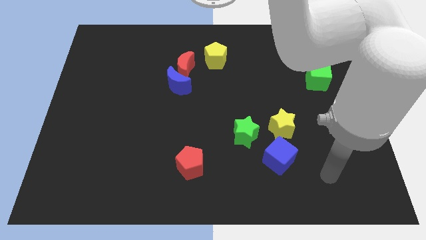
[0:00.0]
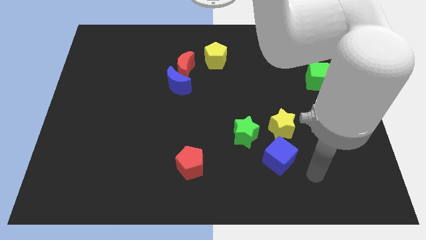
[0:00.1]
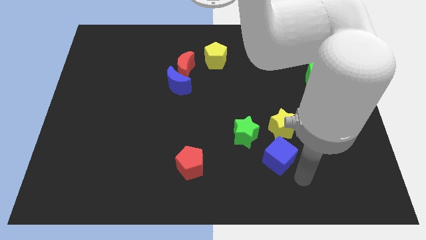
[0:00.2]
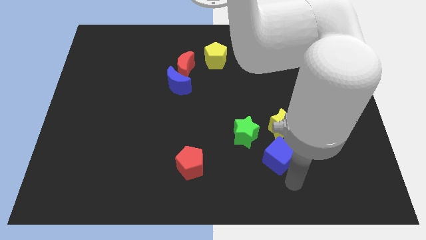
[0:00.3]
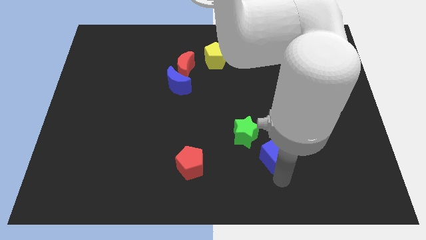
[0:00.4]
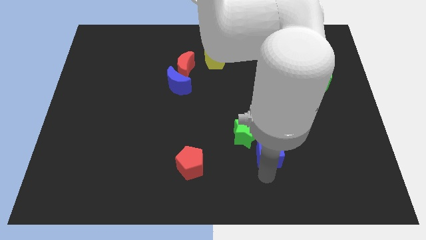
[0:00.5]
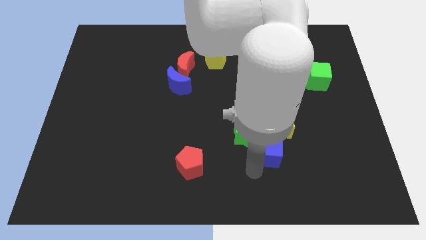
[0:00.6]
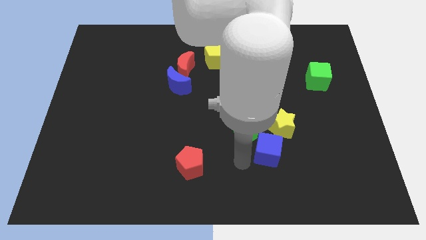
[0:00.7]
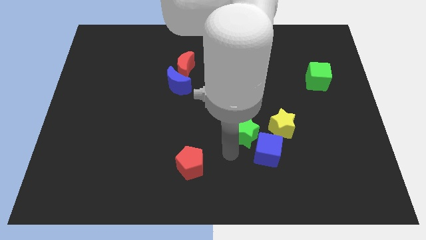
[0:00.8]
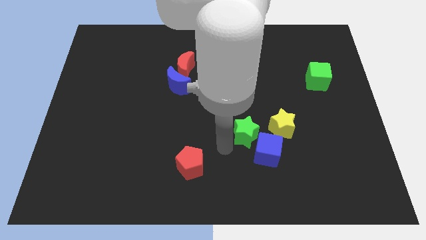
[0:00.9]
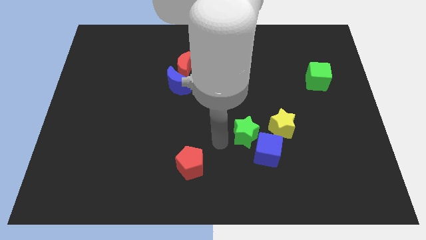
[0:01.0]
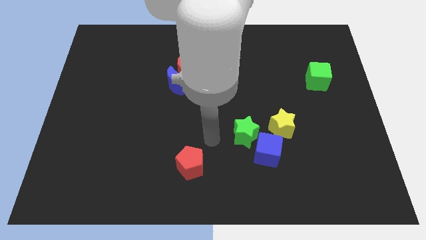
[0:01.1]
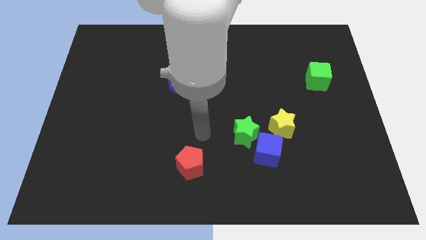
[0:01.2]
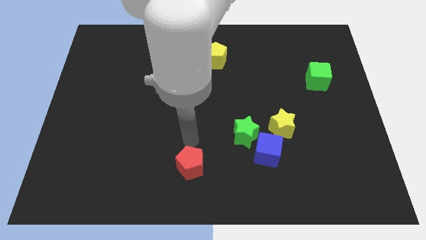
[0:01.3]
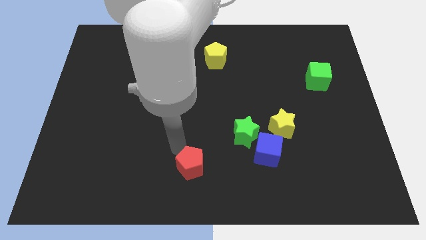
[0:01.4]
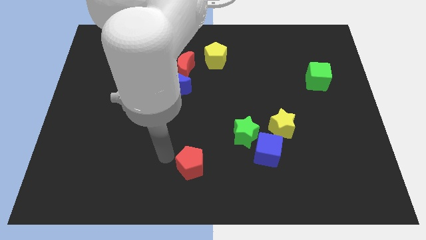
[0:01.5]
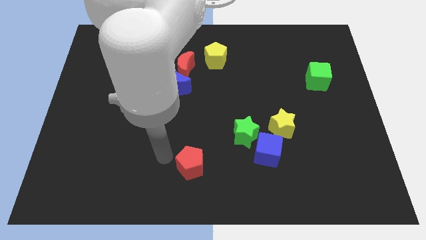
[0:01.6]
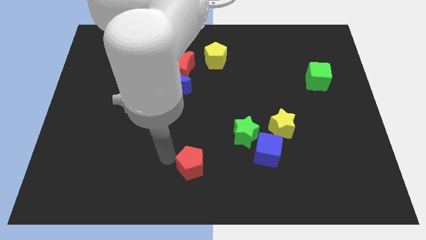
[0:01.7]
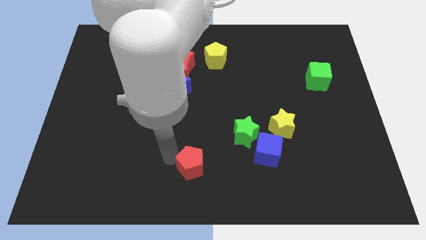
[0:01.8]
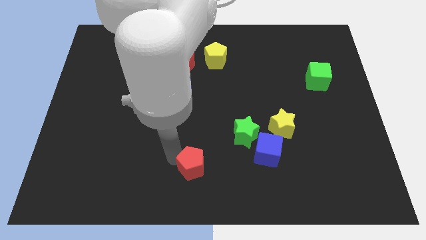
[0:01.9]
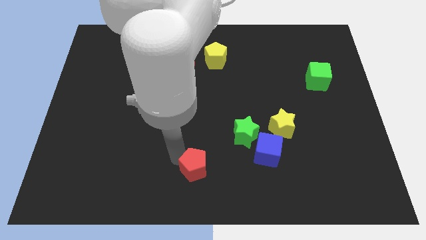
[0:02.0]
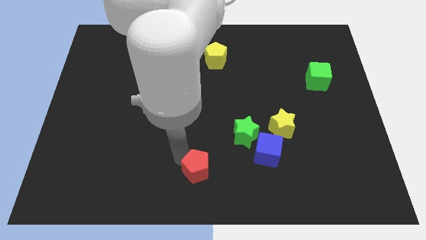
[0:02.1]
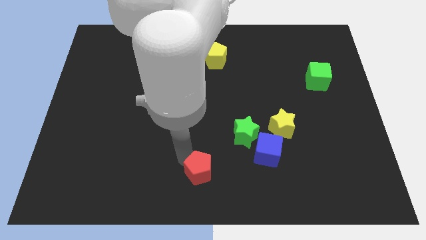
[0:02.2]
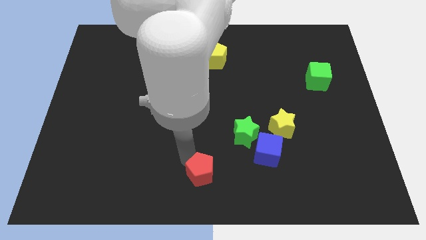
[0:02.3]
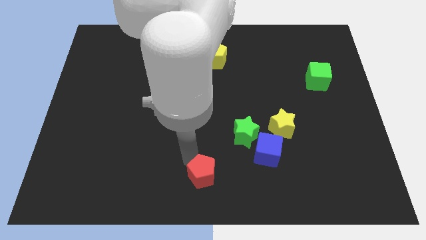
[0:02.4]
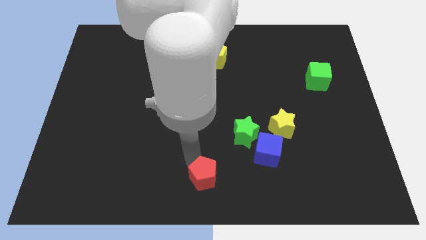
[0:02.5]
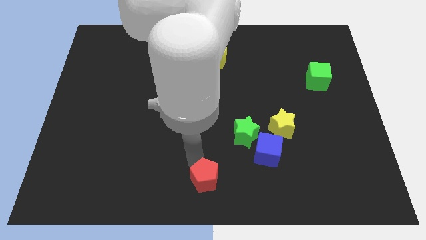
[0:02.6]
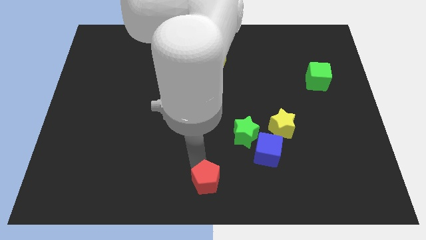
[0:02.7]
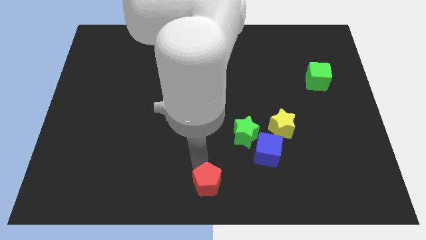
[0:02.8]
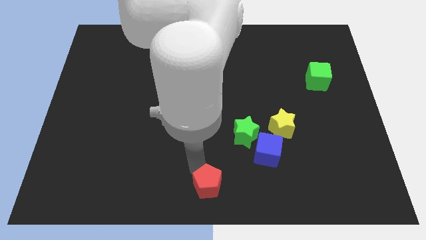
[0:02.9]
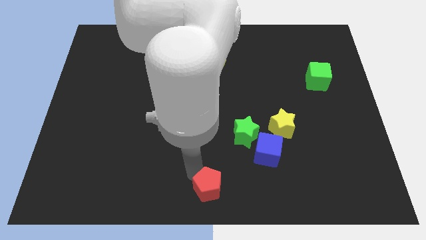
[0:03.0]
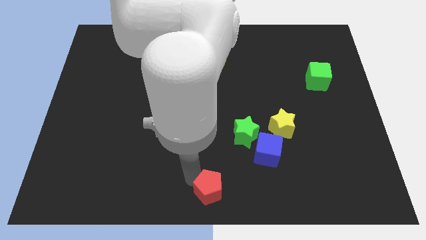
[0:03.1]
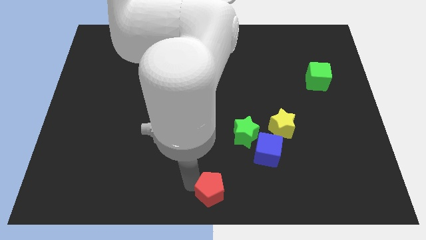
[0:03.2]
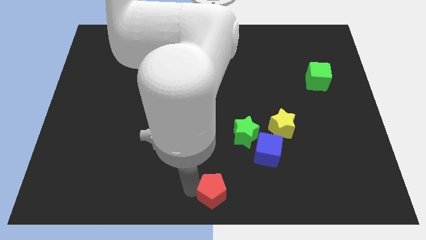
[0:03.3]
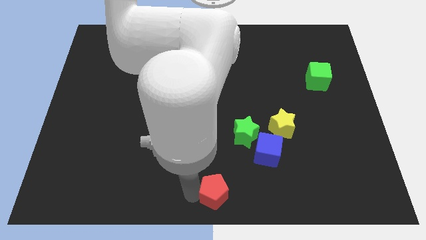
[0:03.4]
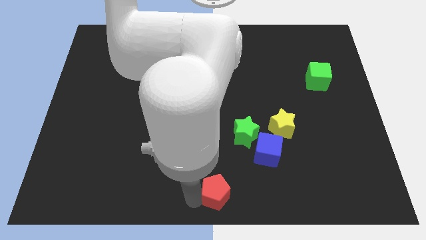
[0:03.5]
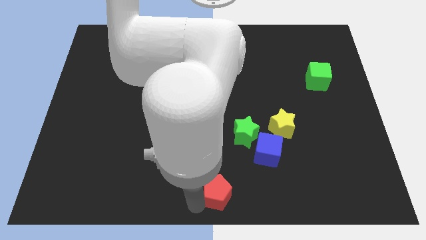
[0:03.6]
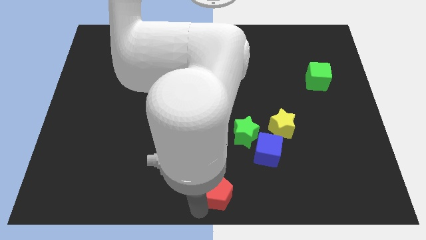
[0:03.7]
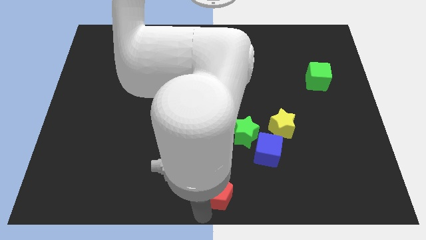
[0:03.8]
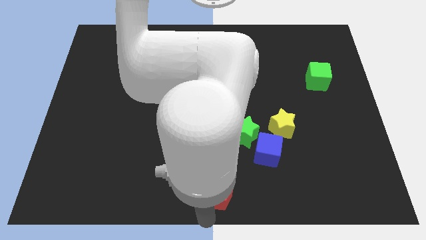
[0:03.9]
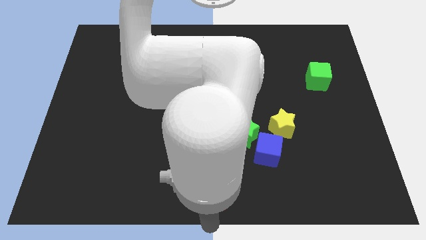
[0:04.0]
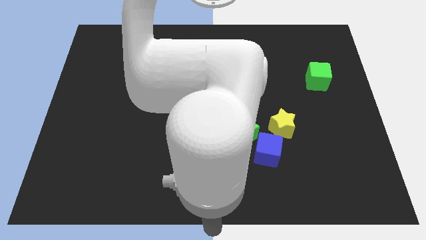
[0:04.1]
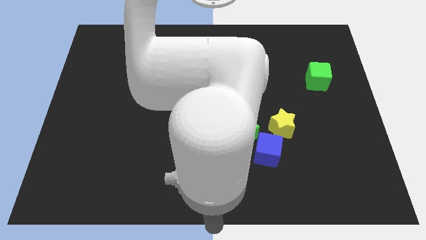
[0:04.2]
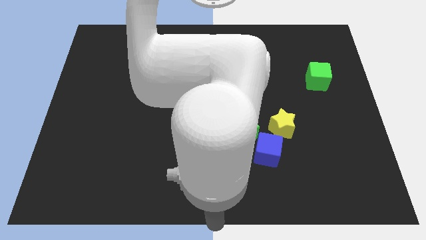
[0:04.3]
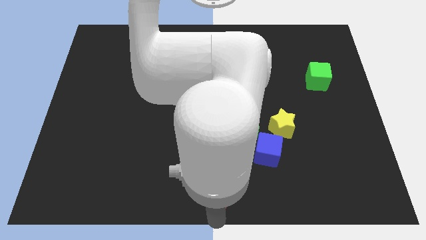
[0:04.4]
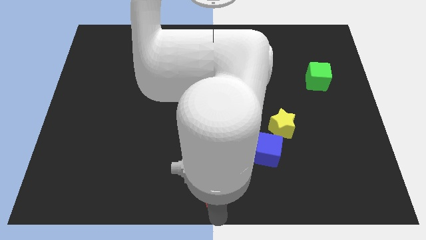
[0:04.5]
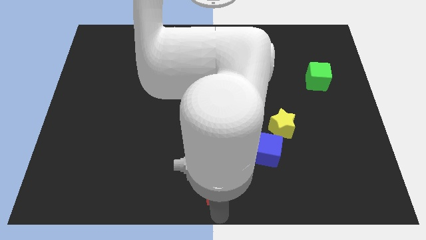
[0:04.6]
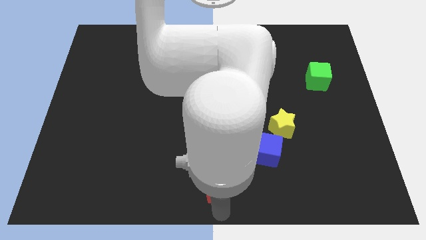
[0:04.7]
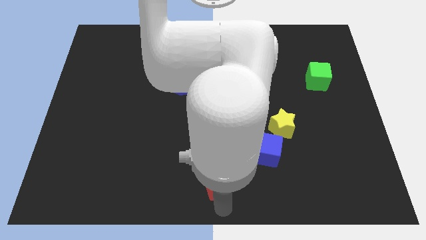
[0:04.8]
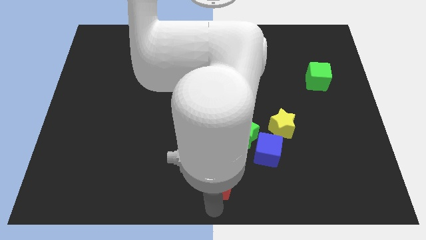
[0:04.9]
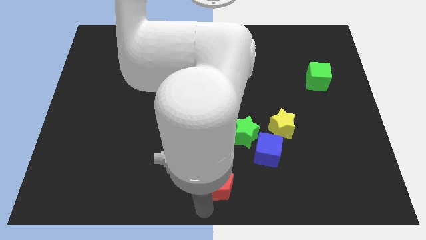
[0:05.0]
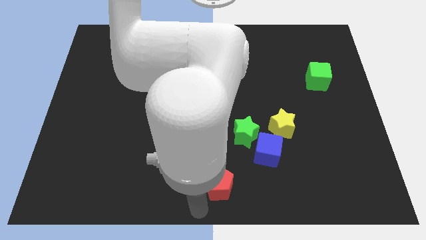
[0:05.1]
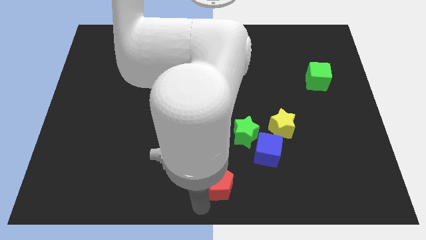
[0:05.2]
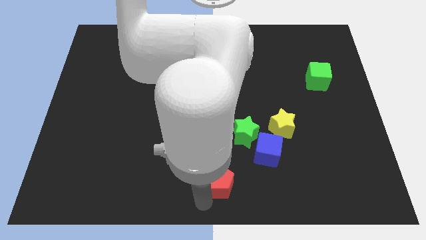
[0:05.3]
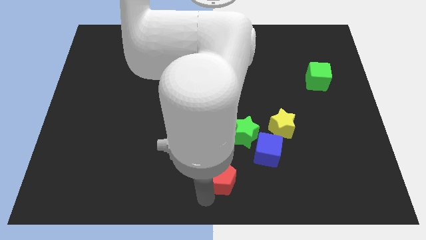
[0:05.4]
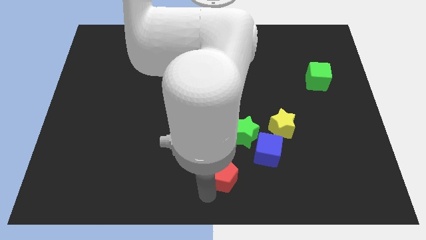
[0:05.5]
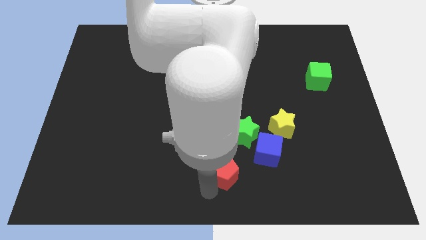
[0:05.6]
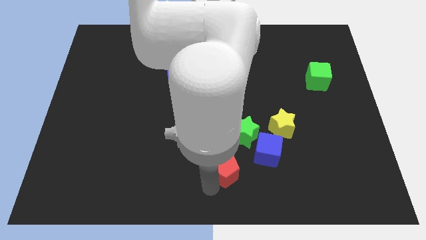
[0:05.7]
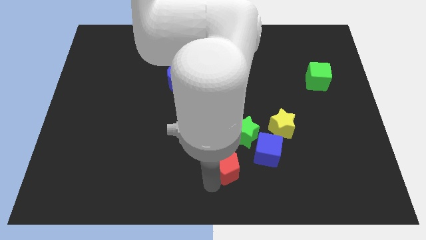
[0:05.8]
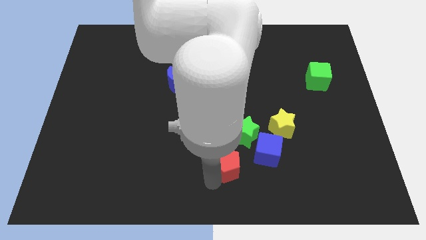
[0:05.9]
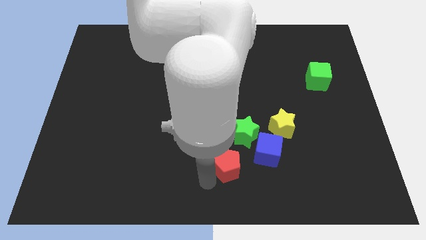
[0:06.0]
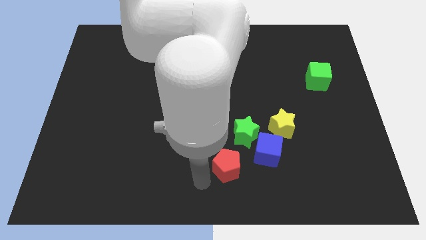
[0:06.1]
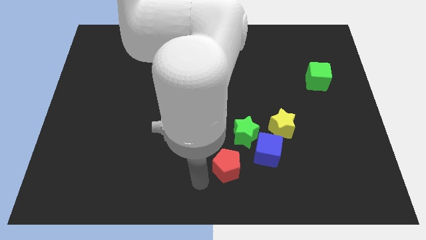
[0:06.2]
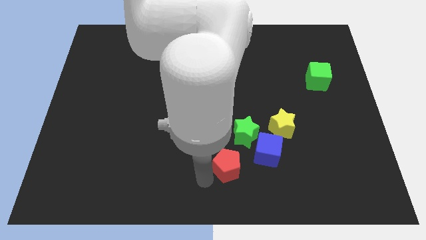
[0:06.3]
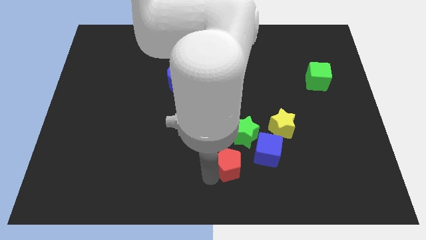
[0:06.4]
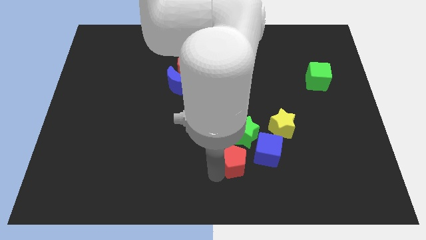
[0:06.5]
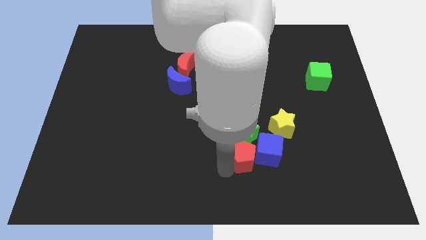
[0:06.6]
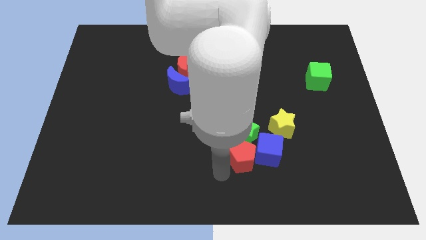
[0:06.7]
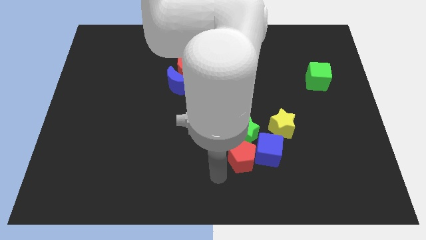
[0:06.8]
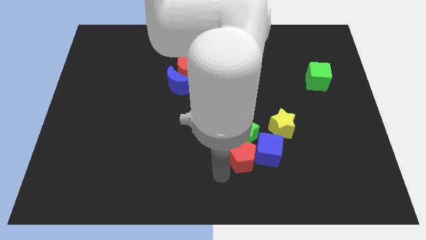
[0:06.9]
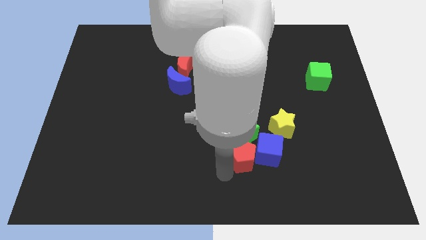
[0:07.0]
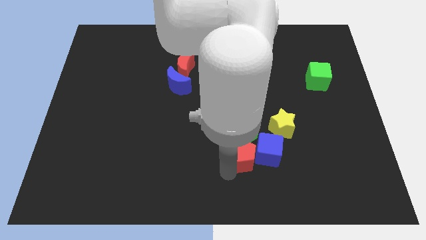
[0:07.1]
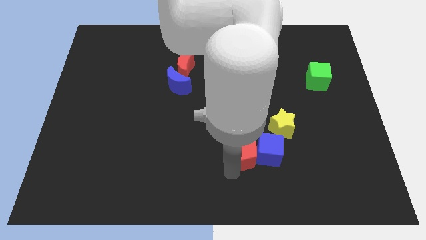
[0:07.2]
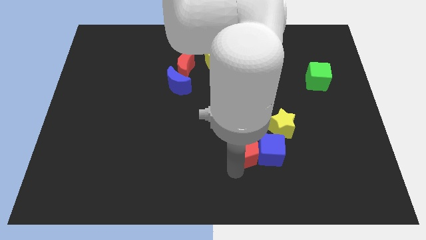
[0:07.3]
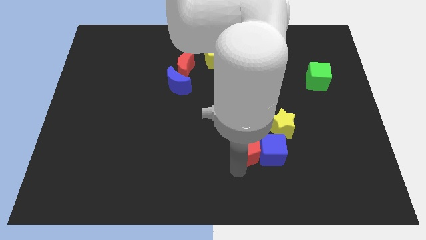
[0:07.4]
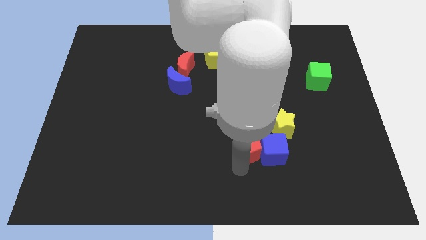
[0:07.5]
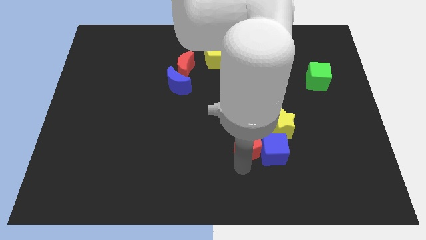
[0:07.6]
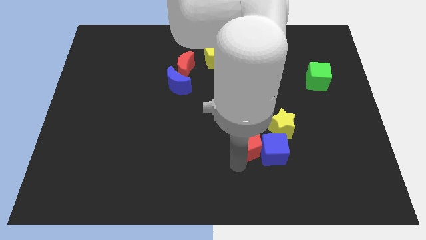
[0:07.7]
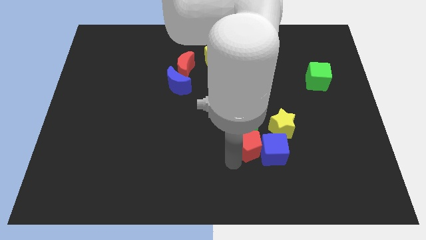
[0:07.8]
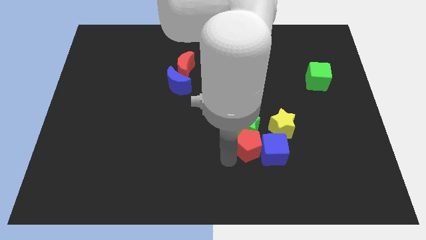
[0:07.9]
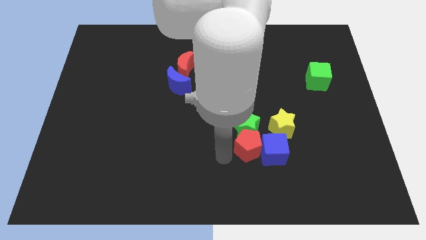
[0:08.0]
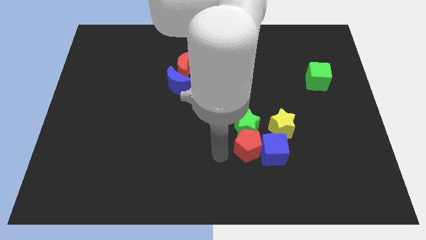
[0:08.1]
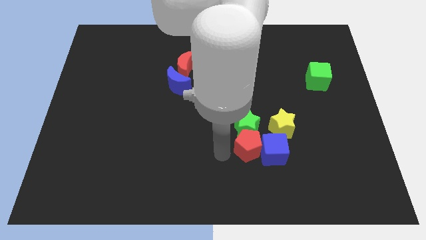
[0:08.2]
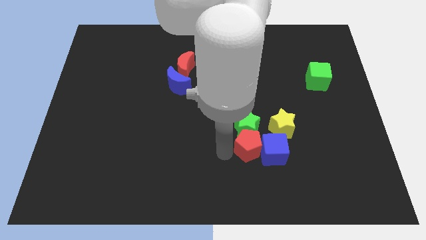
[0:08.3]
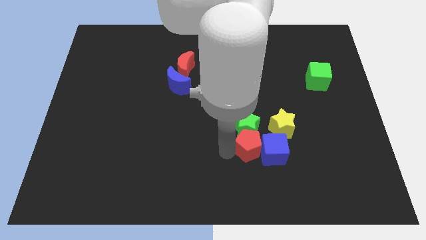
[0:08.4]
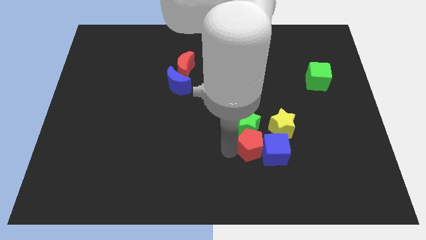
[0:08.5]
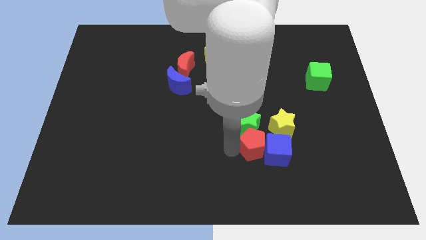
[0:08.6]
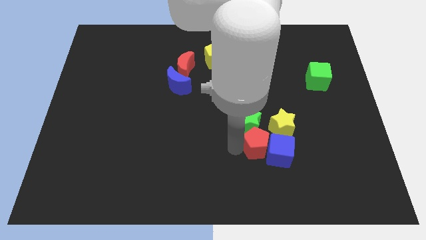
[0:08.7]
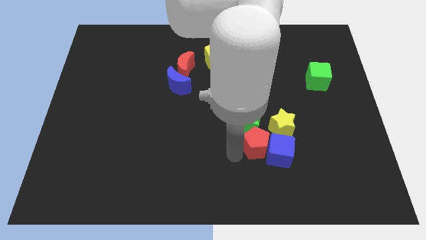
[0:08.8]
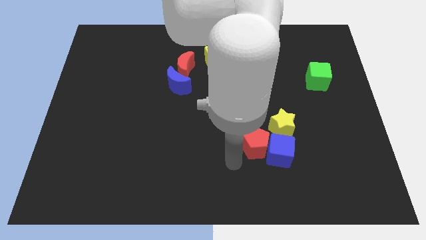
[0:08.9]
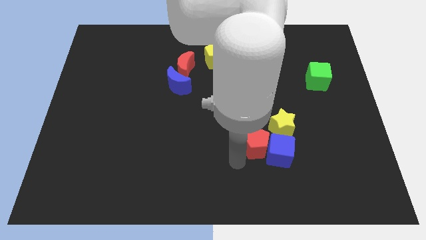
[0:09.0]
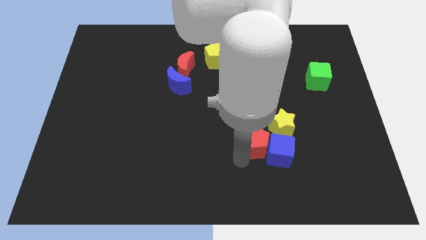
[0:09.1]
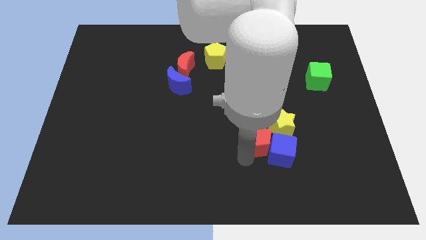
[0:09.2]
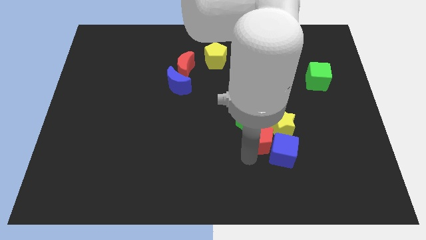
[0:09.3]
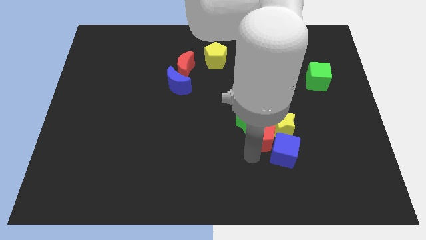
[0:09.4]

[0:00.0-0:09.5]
put the red pentagon close to the yellow star
